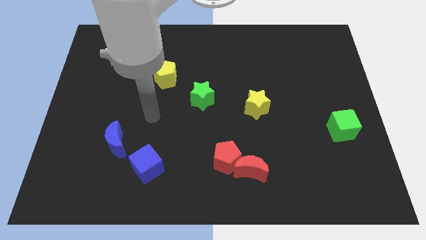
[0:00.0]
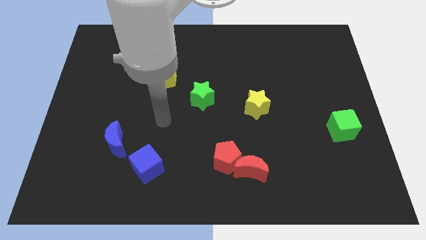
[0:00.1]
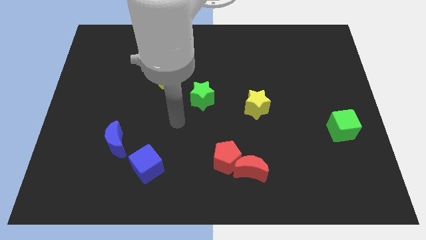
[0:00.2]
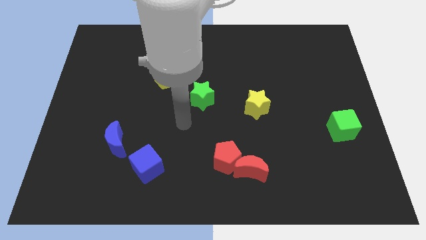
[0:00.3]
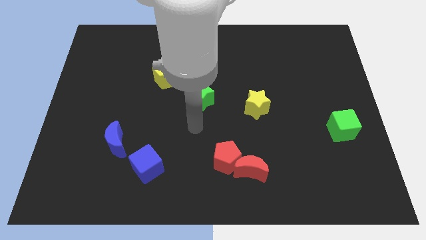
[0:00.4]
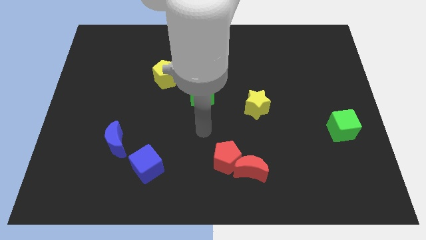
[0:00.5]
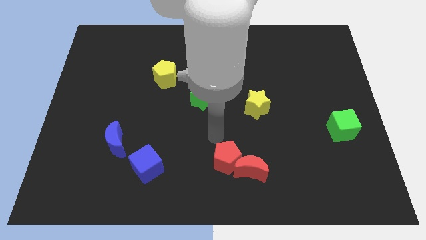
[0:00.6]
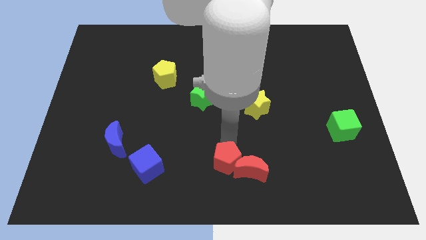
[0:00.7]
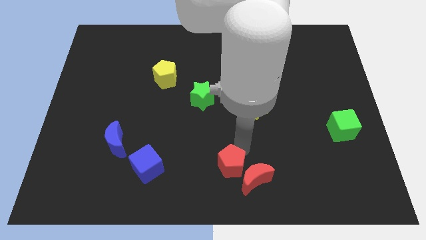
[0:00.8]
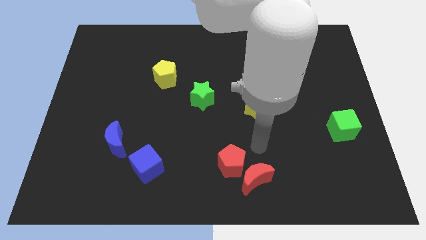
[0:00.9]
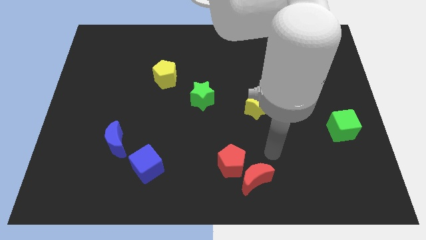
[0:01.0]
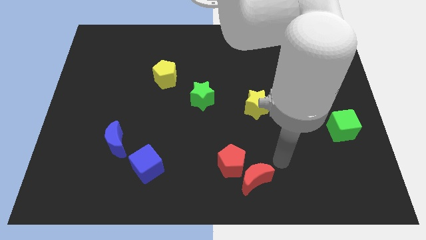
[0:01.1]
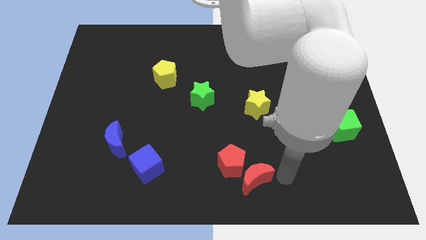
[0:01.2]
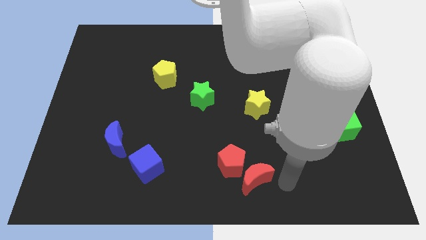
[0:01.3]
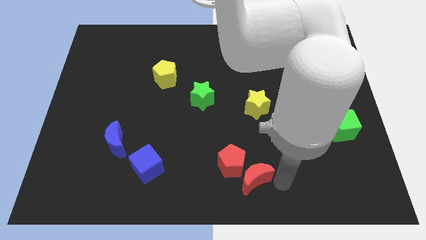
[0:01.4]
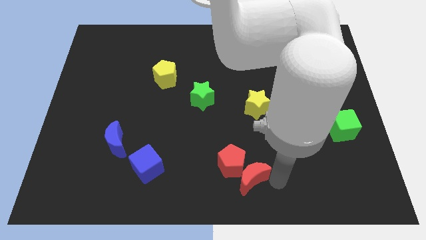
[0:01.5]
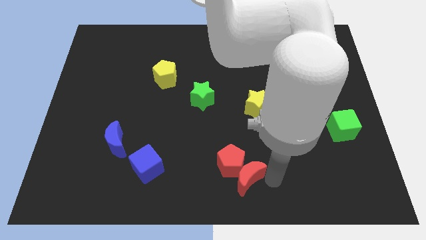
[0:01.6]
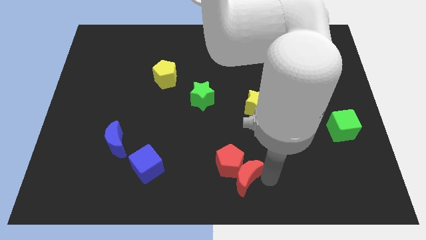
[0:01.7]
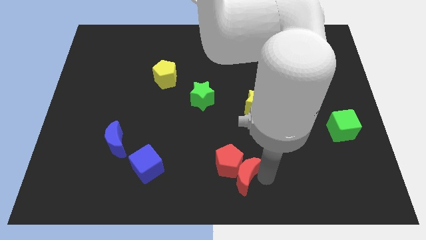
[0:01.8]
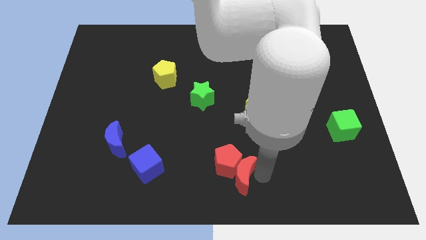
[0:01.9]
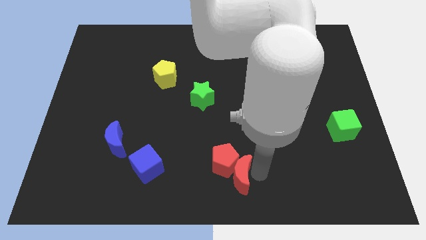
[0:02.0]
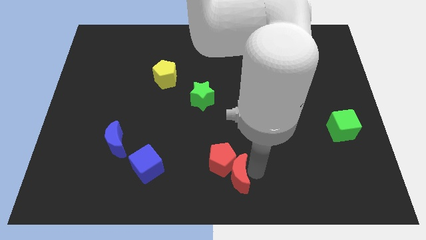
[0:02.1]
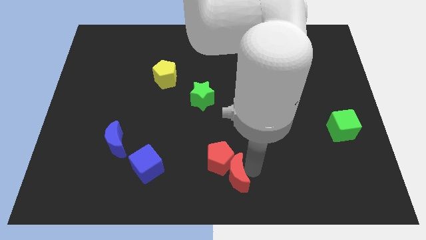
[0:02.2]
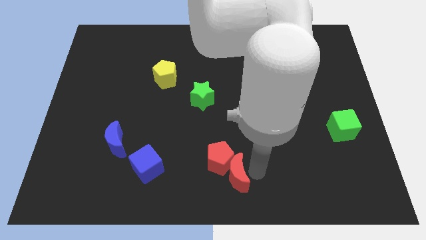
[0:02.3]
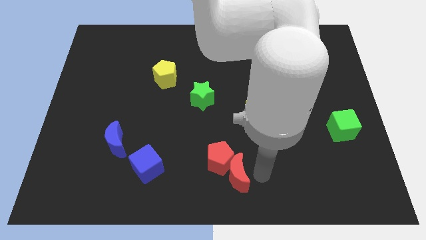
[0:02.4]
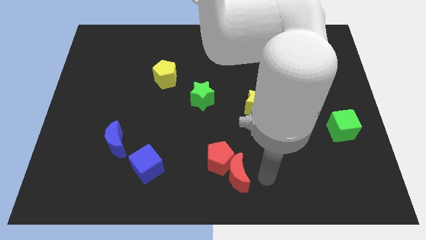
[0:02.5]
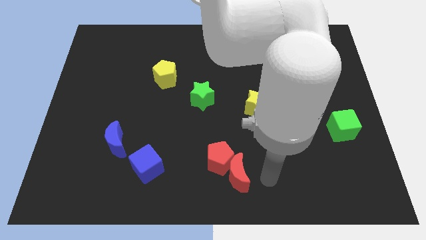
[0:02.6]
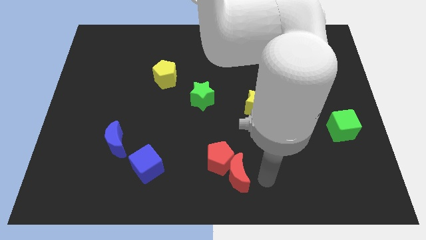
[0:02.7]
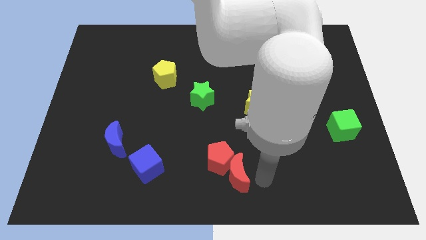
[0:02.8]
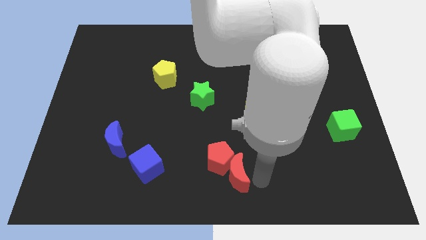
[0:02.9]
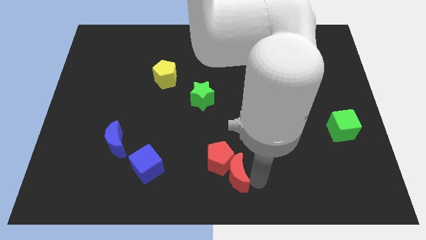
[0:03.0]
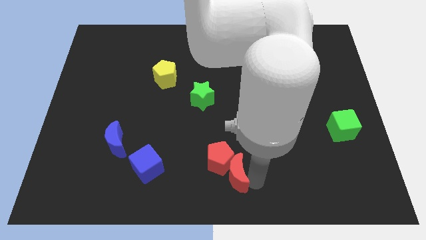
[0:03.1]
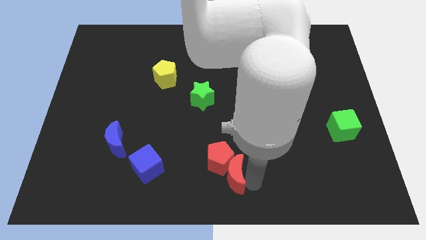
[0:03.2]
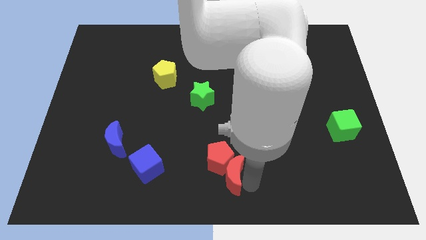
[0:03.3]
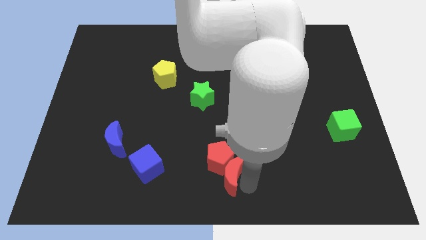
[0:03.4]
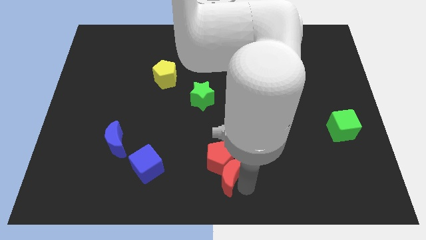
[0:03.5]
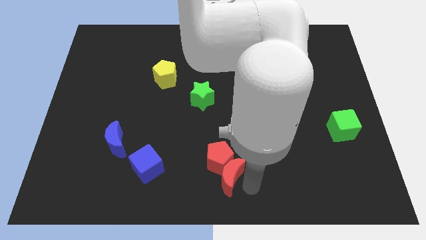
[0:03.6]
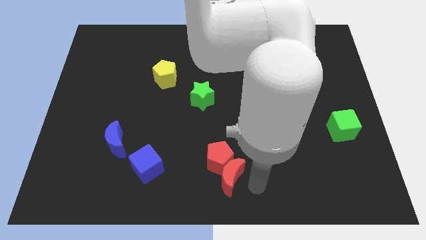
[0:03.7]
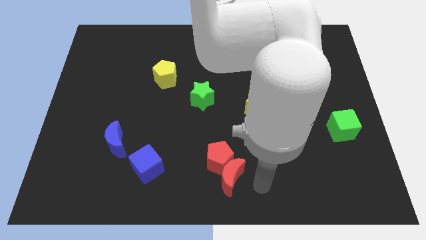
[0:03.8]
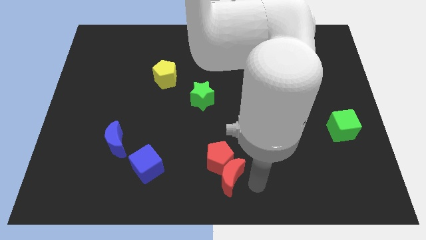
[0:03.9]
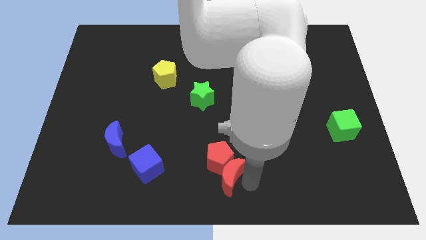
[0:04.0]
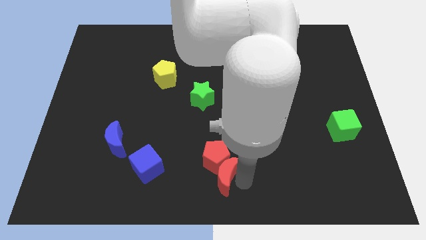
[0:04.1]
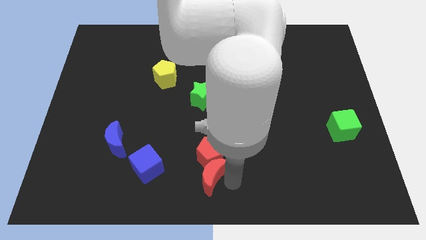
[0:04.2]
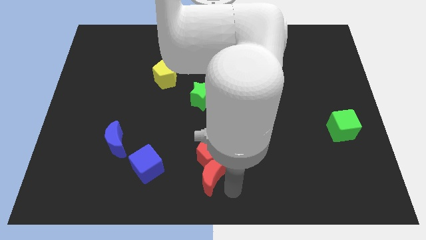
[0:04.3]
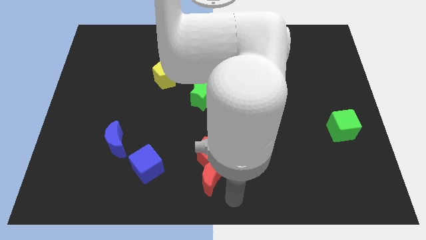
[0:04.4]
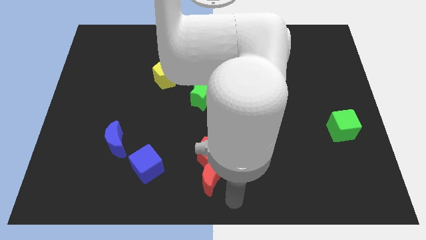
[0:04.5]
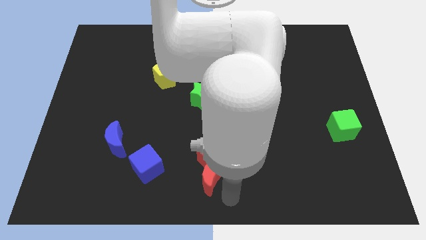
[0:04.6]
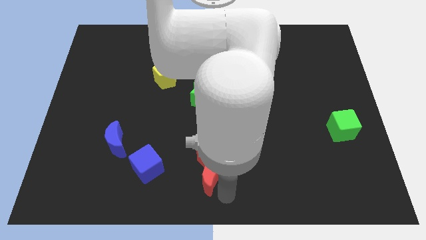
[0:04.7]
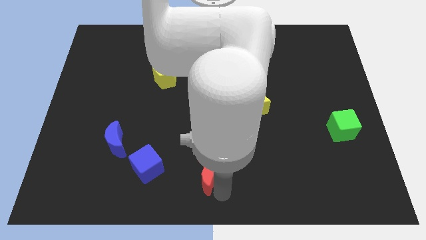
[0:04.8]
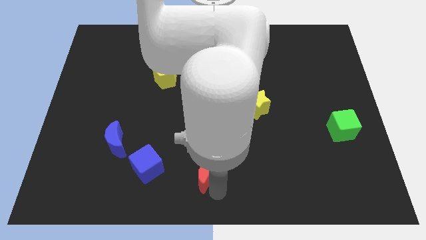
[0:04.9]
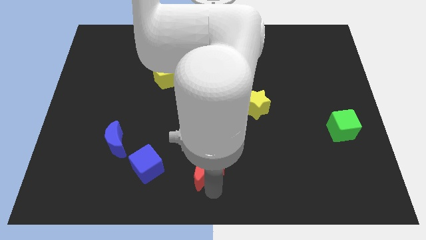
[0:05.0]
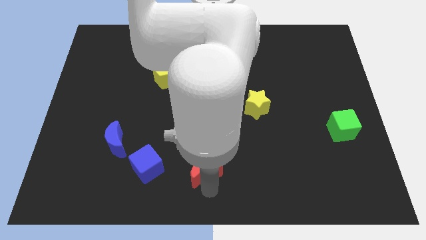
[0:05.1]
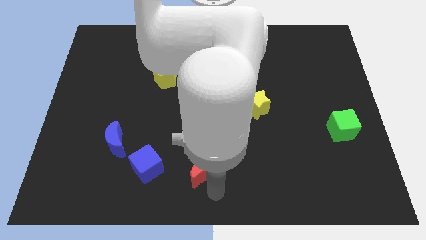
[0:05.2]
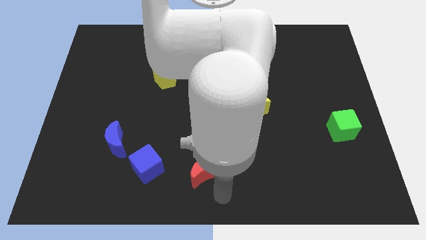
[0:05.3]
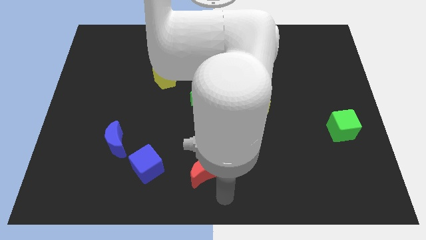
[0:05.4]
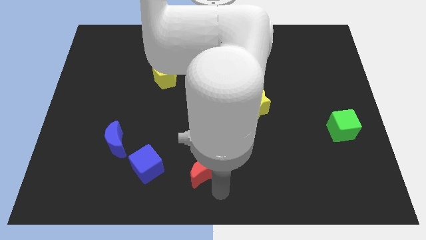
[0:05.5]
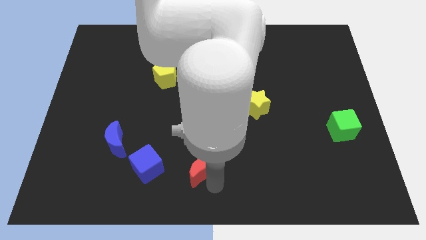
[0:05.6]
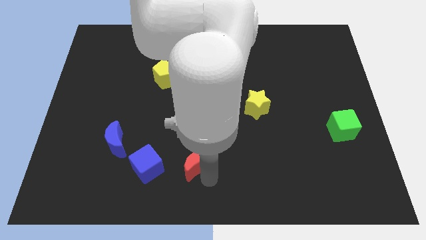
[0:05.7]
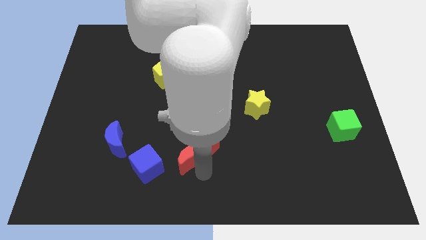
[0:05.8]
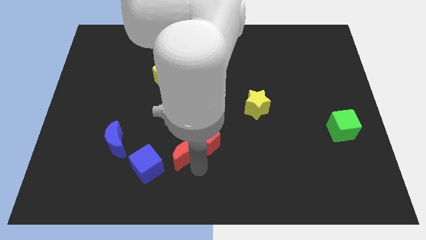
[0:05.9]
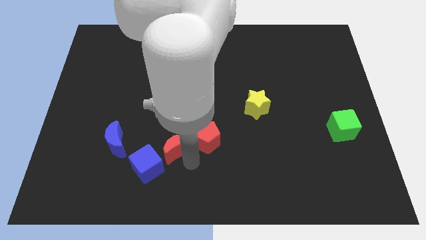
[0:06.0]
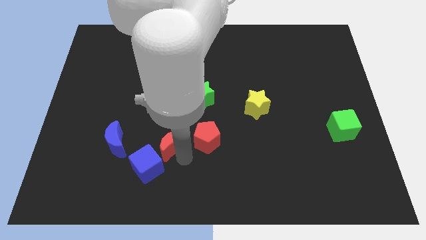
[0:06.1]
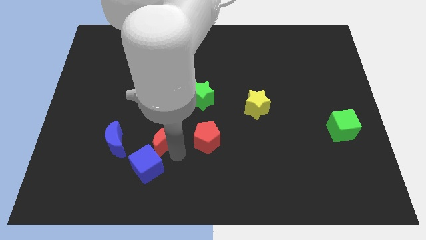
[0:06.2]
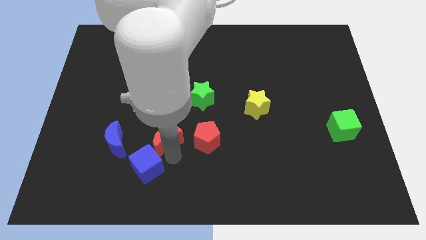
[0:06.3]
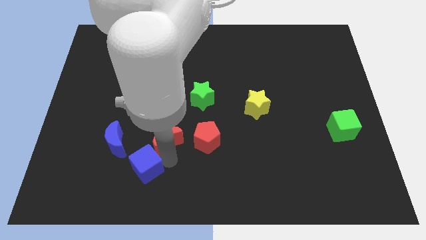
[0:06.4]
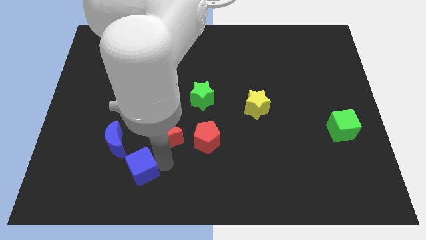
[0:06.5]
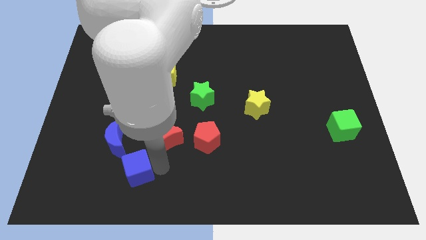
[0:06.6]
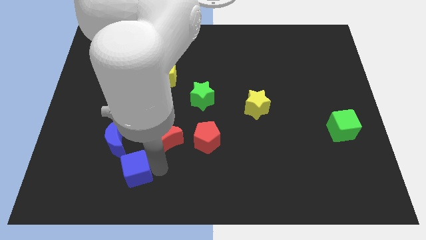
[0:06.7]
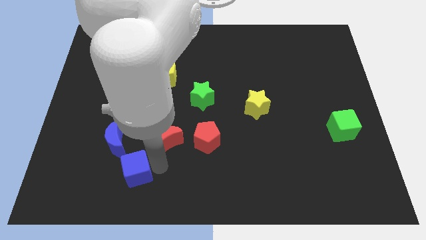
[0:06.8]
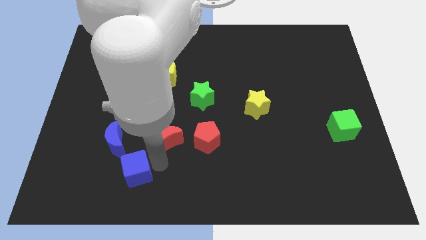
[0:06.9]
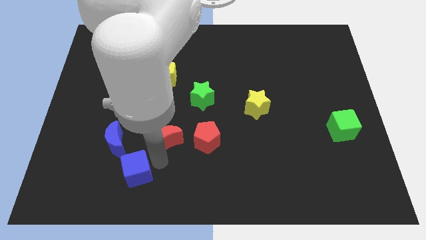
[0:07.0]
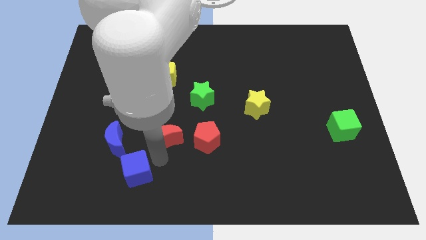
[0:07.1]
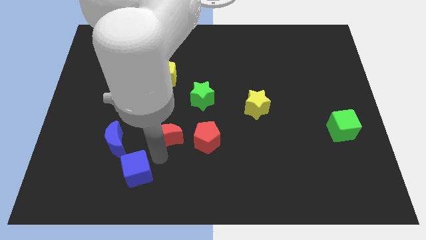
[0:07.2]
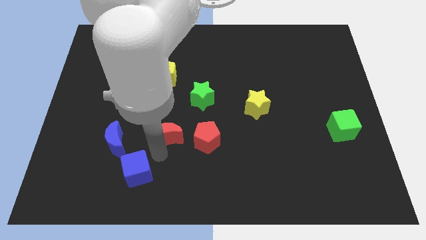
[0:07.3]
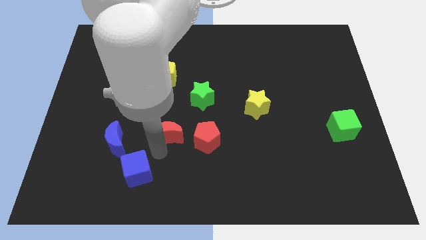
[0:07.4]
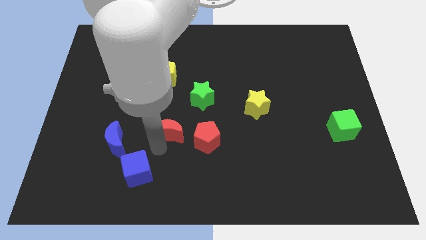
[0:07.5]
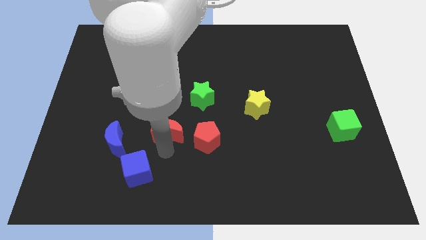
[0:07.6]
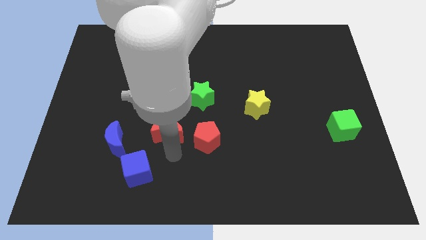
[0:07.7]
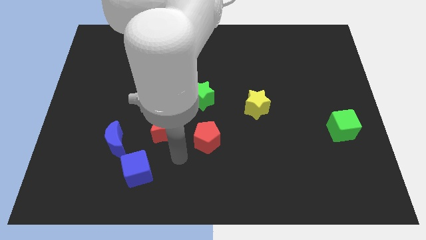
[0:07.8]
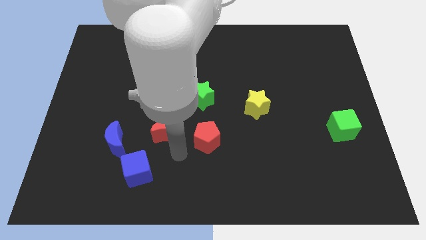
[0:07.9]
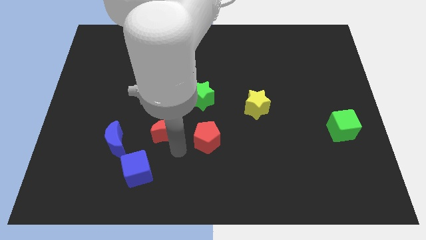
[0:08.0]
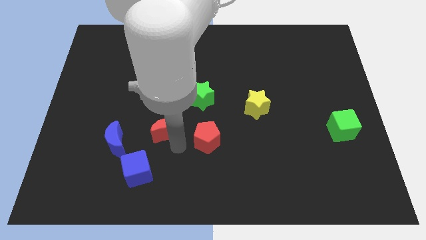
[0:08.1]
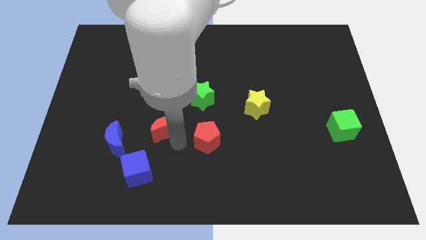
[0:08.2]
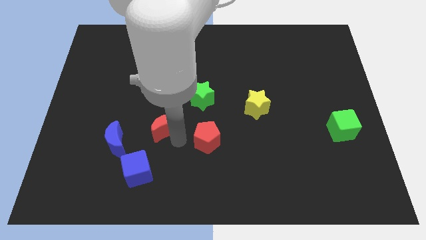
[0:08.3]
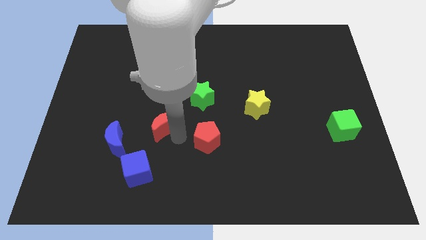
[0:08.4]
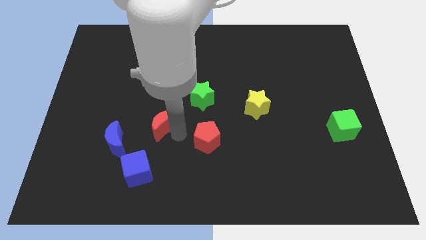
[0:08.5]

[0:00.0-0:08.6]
move the red moon diagonally up and left
